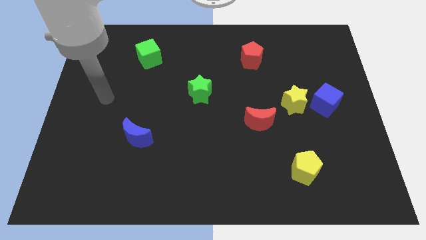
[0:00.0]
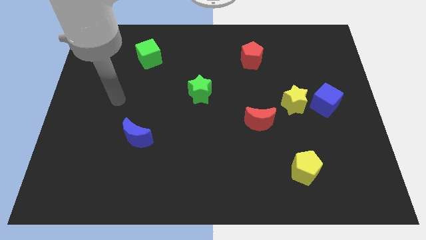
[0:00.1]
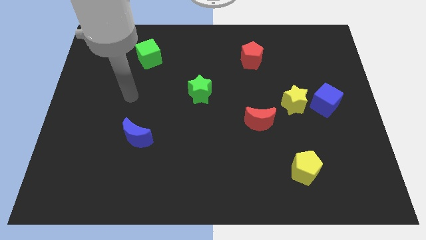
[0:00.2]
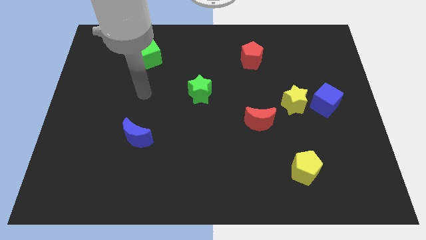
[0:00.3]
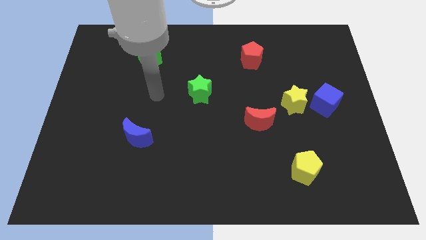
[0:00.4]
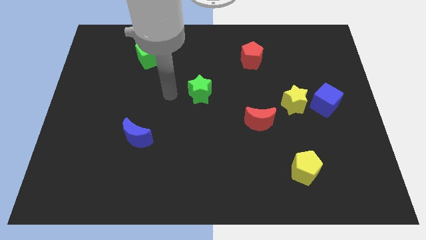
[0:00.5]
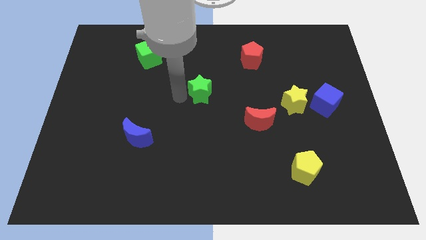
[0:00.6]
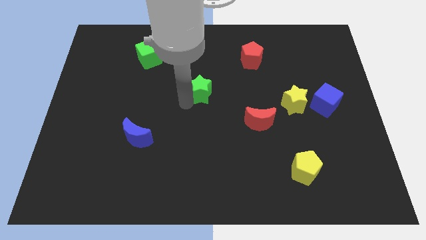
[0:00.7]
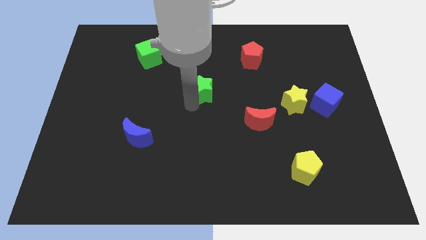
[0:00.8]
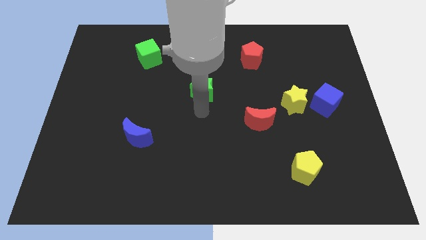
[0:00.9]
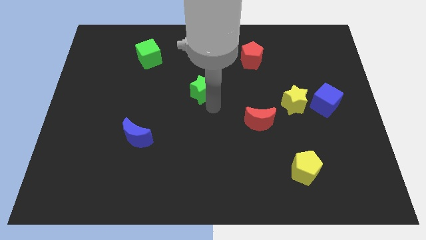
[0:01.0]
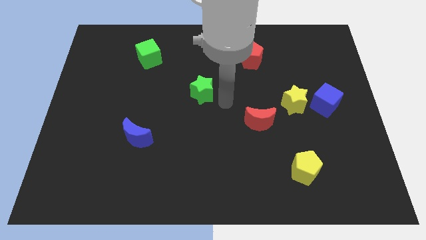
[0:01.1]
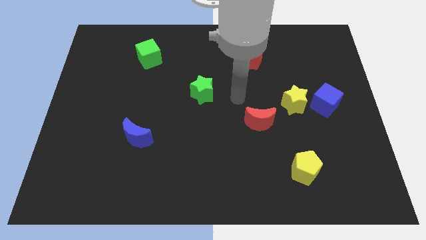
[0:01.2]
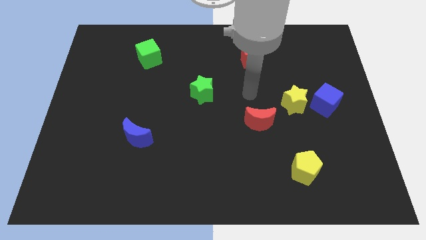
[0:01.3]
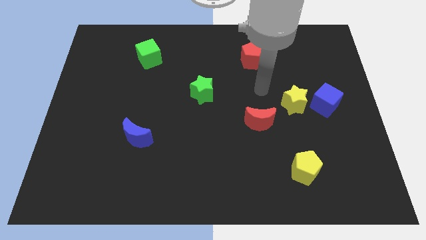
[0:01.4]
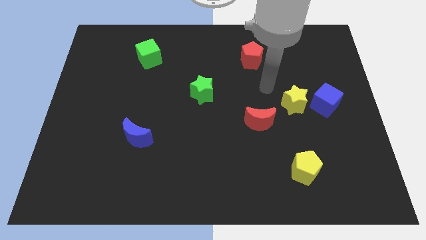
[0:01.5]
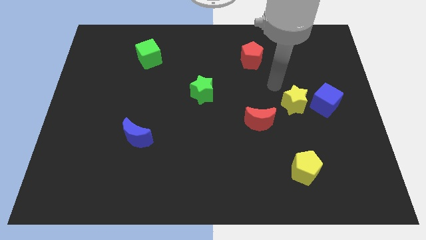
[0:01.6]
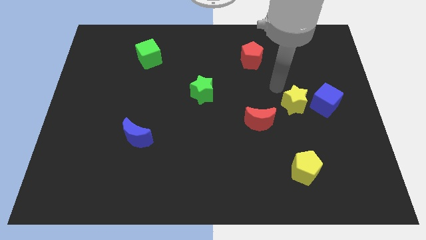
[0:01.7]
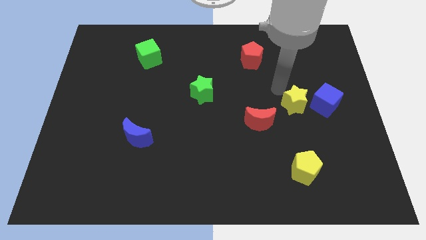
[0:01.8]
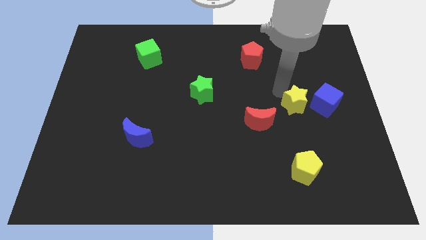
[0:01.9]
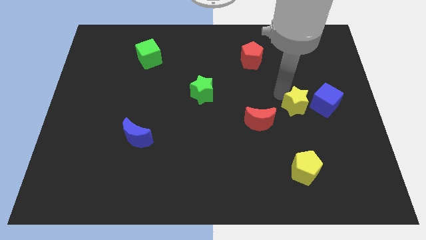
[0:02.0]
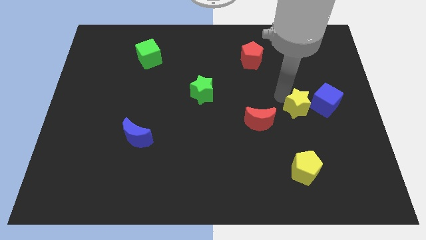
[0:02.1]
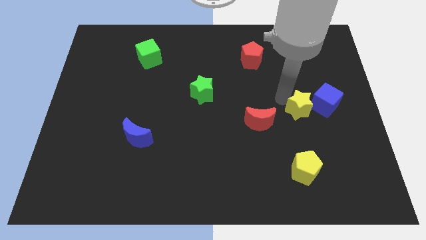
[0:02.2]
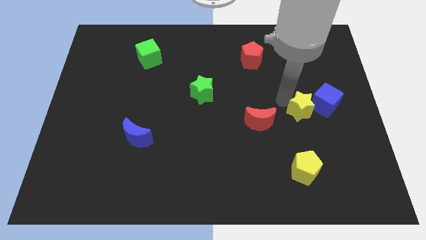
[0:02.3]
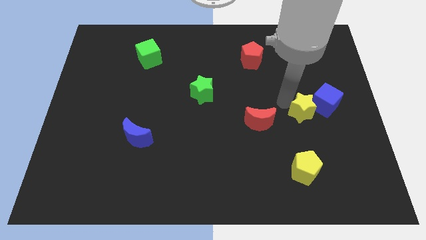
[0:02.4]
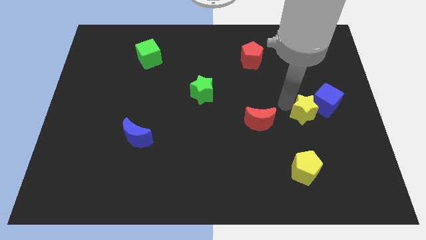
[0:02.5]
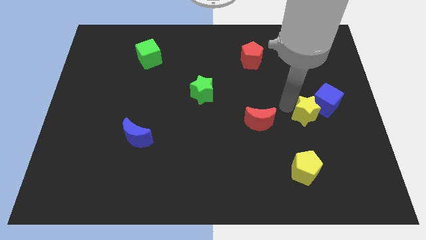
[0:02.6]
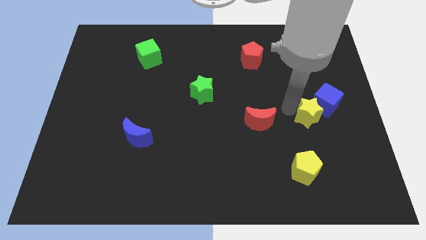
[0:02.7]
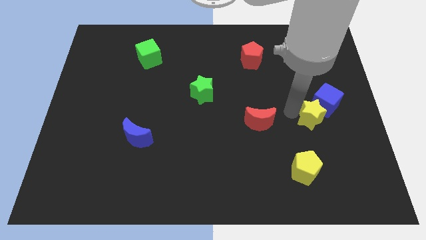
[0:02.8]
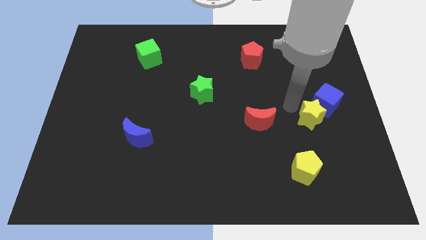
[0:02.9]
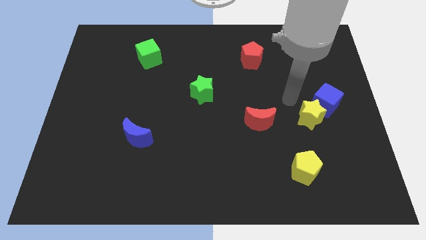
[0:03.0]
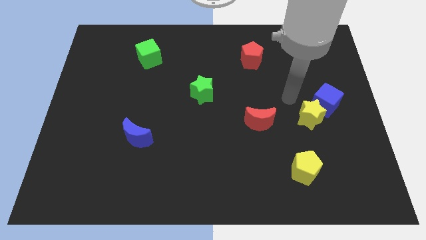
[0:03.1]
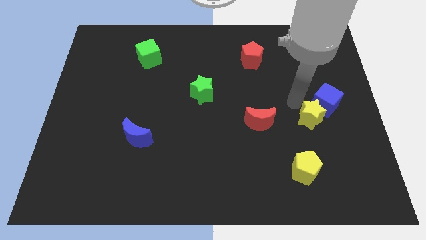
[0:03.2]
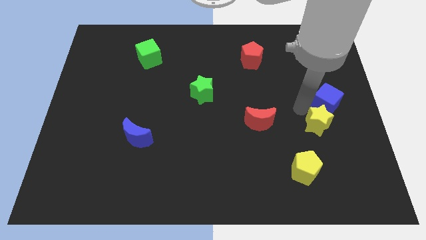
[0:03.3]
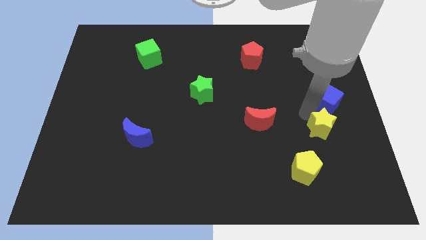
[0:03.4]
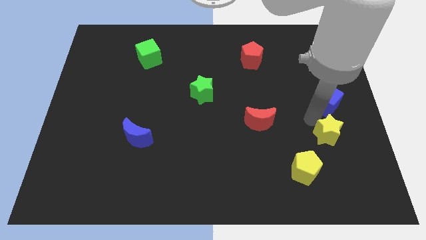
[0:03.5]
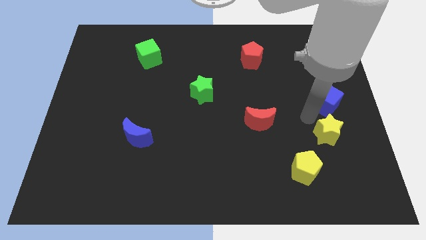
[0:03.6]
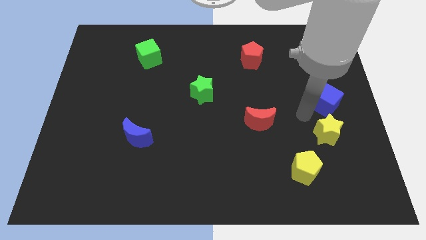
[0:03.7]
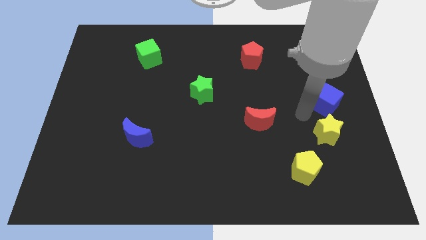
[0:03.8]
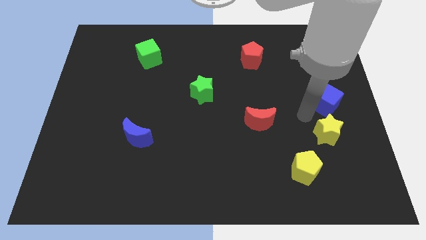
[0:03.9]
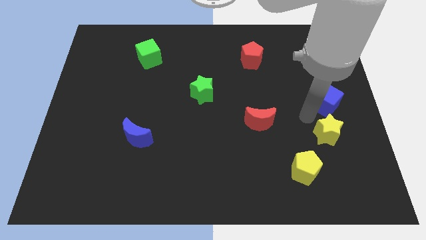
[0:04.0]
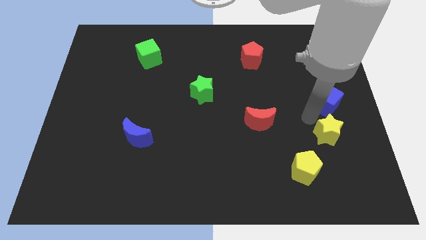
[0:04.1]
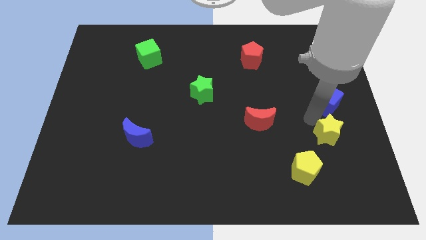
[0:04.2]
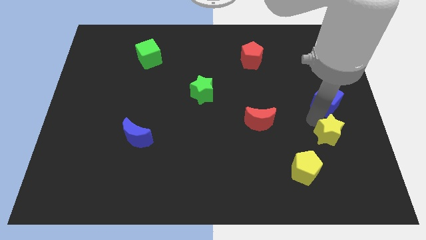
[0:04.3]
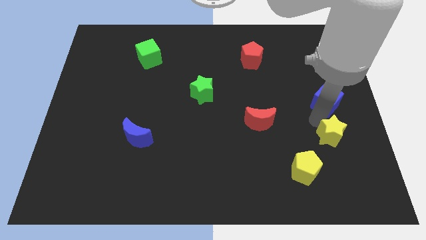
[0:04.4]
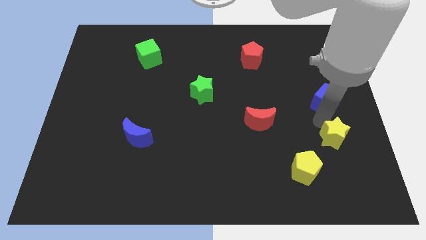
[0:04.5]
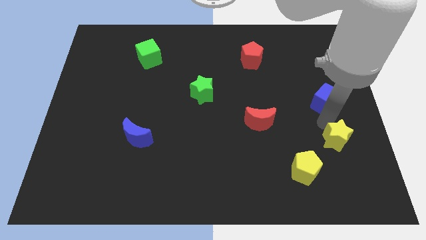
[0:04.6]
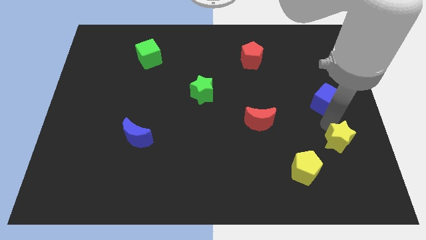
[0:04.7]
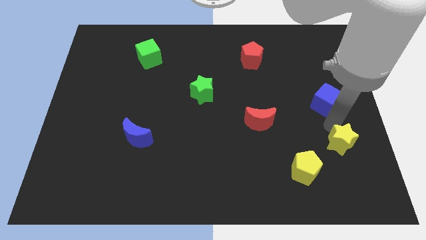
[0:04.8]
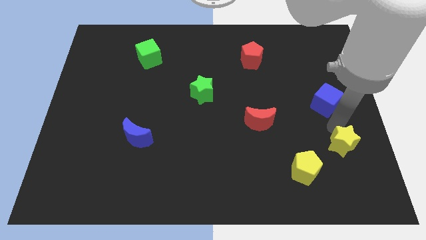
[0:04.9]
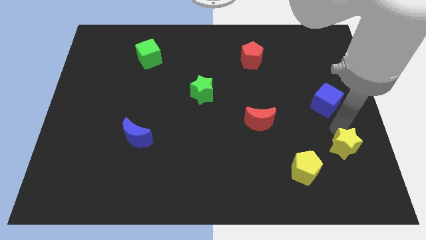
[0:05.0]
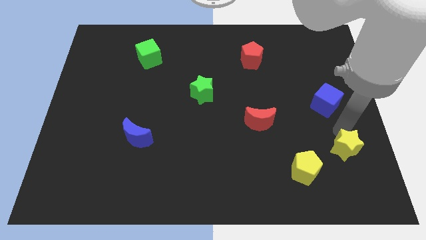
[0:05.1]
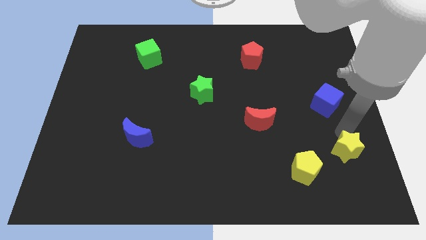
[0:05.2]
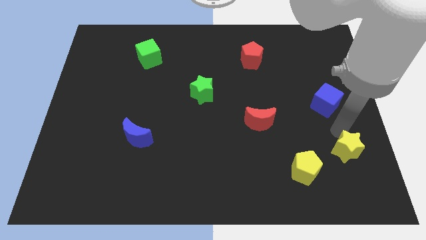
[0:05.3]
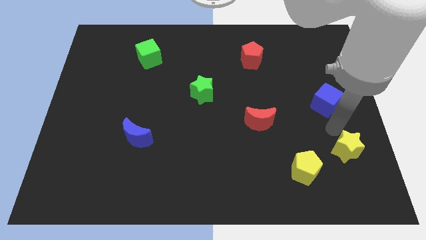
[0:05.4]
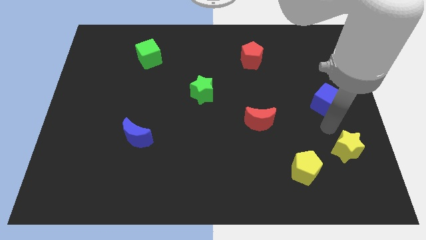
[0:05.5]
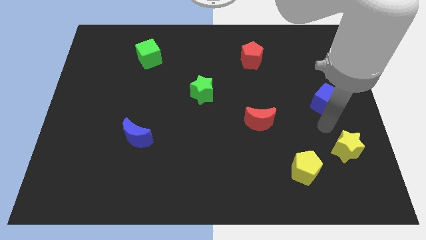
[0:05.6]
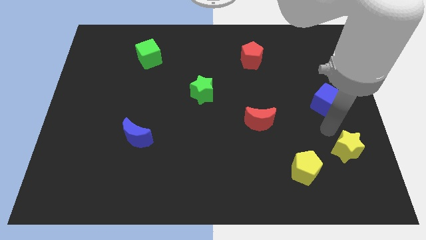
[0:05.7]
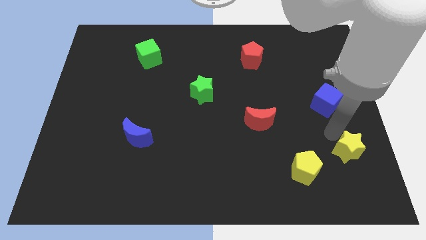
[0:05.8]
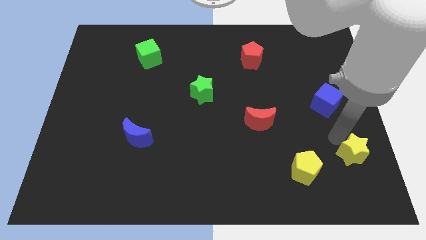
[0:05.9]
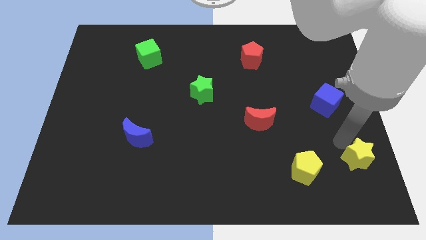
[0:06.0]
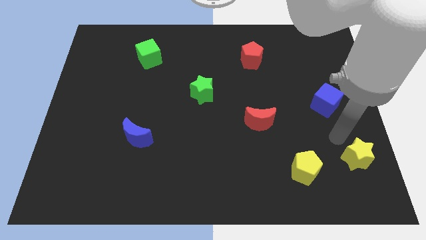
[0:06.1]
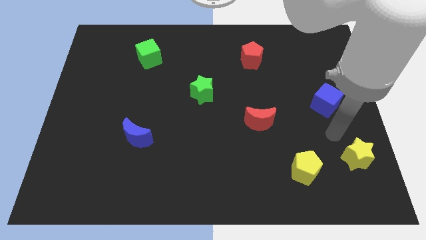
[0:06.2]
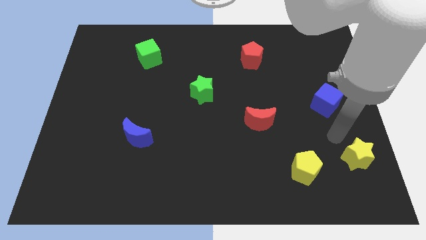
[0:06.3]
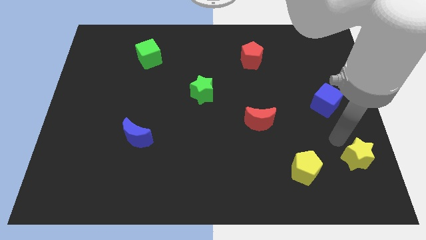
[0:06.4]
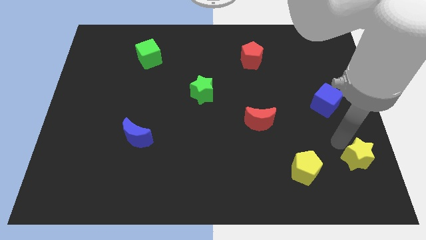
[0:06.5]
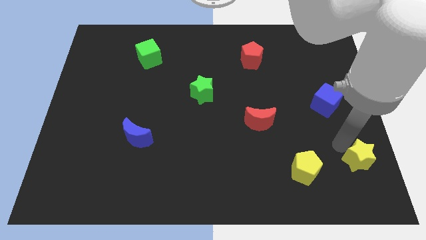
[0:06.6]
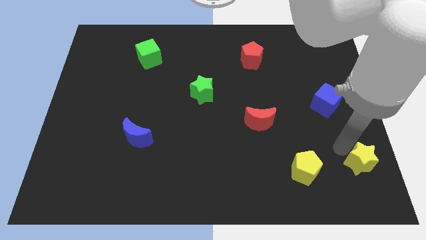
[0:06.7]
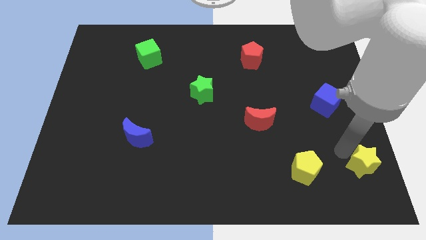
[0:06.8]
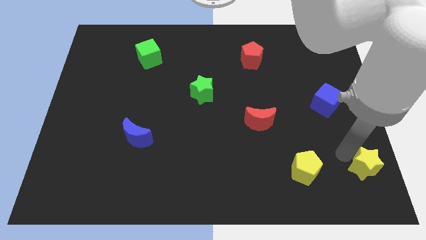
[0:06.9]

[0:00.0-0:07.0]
push the yellow star to the lower right corner
